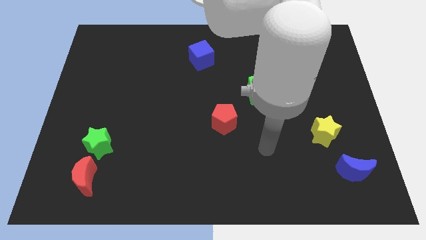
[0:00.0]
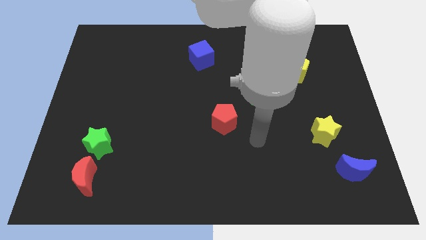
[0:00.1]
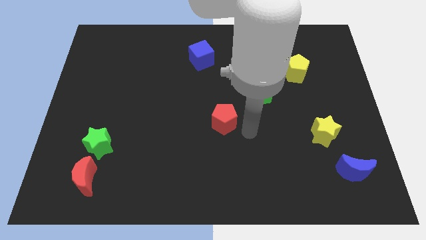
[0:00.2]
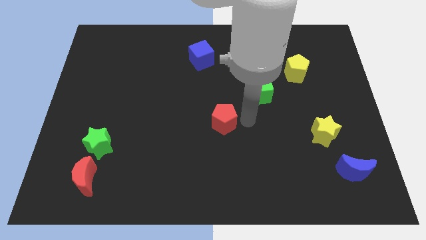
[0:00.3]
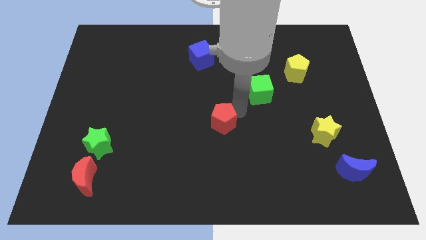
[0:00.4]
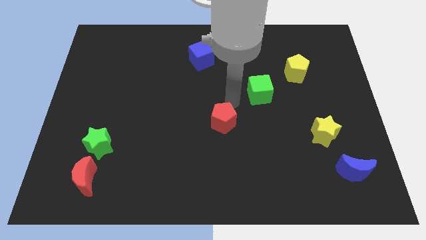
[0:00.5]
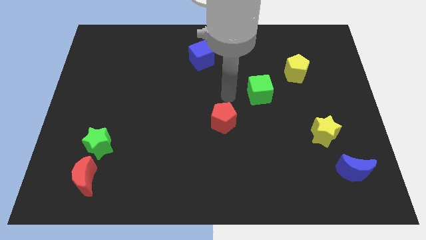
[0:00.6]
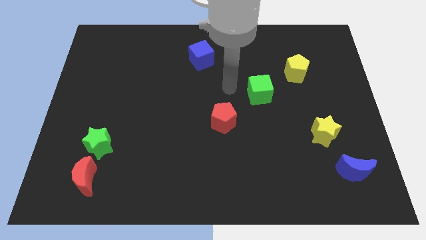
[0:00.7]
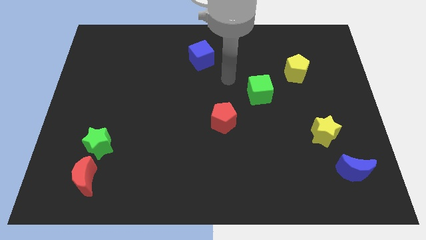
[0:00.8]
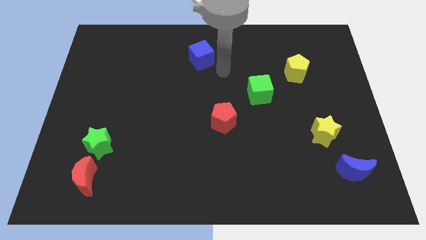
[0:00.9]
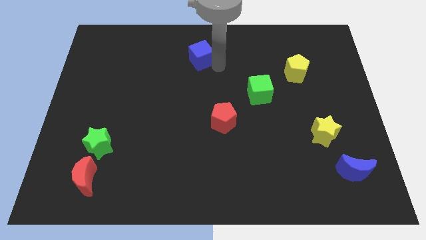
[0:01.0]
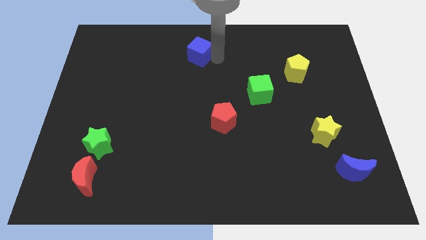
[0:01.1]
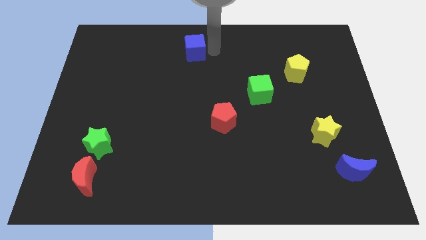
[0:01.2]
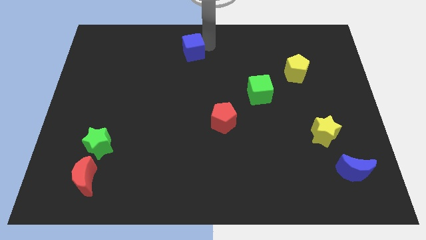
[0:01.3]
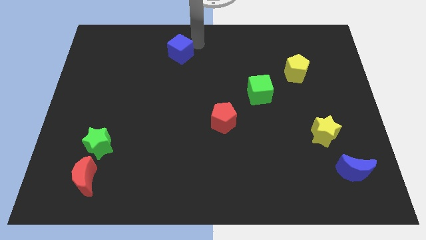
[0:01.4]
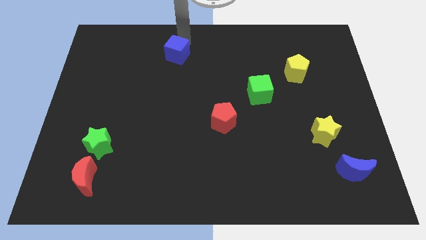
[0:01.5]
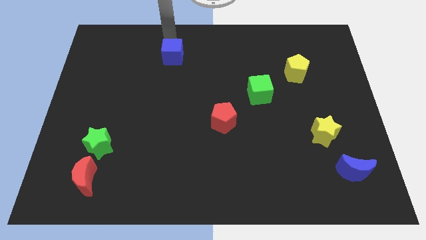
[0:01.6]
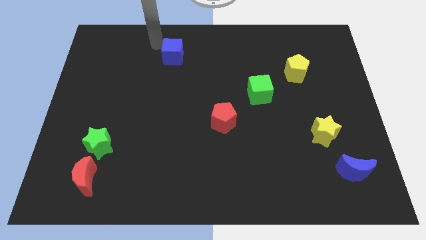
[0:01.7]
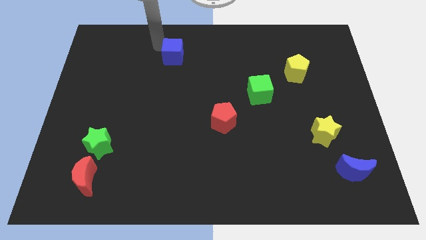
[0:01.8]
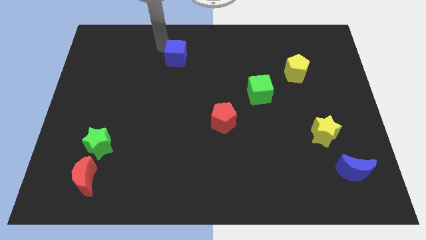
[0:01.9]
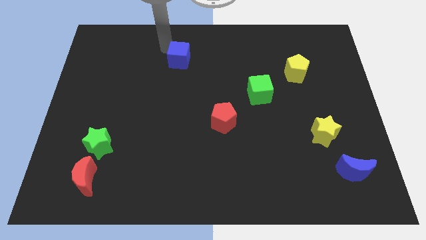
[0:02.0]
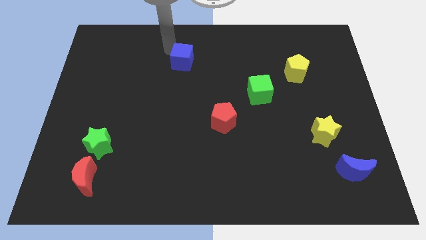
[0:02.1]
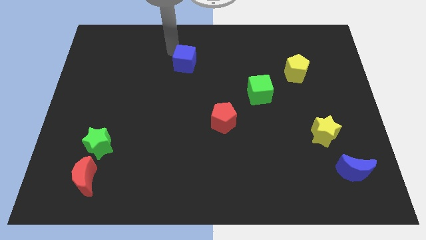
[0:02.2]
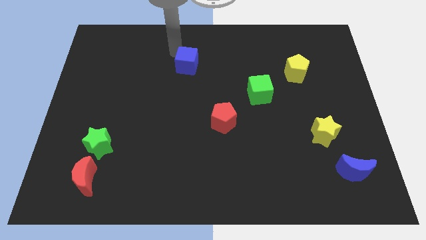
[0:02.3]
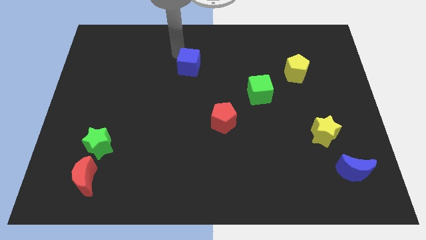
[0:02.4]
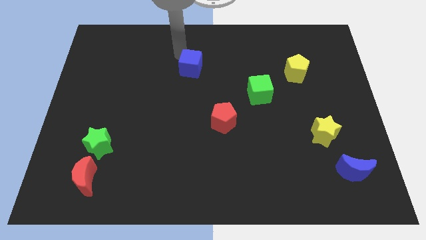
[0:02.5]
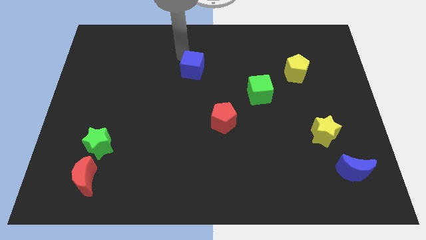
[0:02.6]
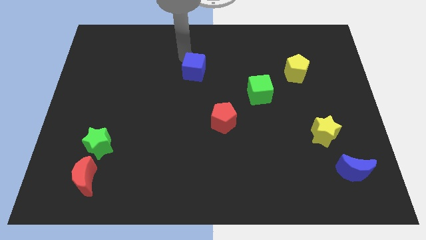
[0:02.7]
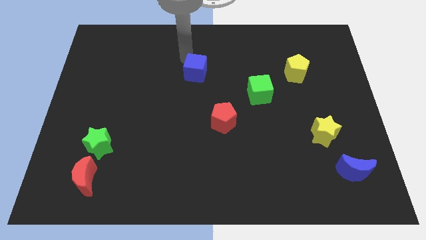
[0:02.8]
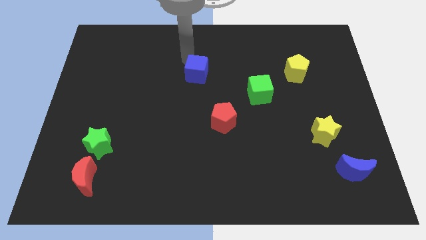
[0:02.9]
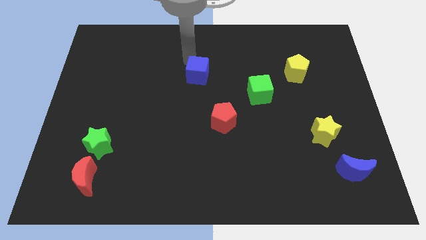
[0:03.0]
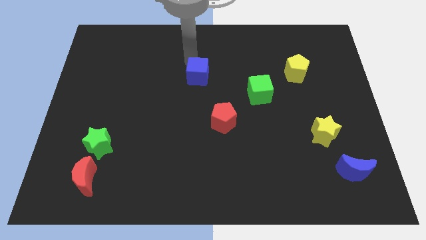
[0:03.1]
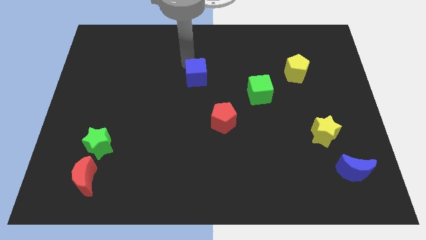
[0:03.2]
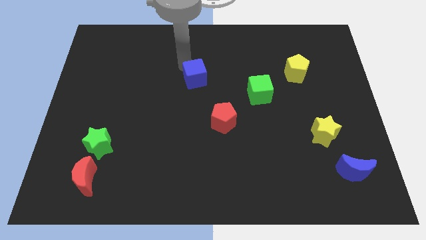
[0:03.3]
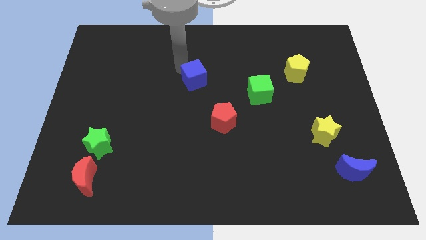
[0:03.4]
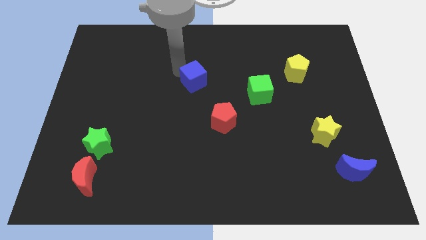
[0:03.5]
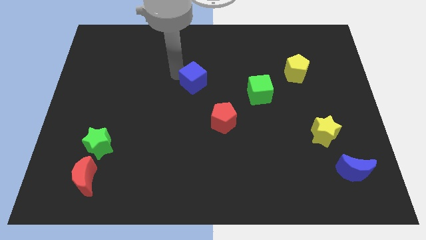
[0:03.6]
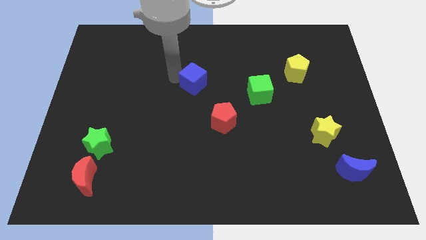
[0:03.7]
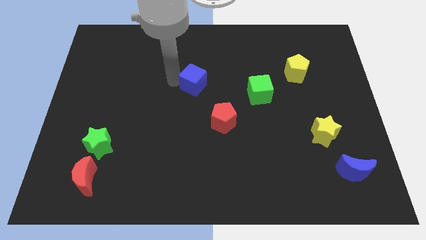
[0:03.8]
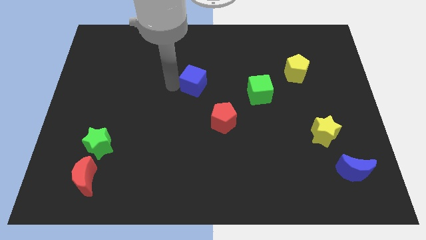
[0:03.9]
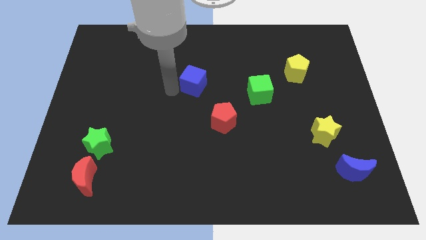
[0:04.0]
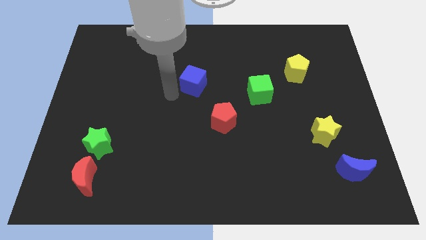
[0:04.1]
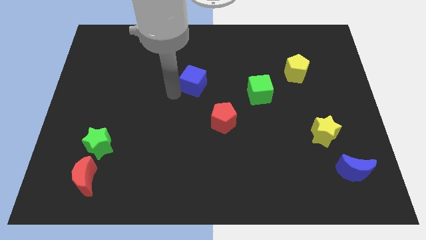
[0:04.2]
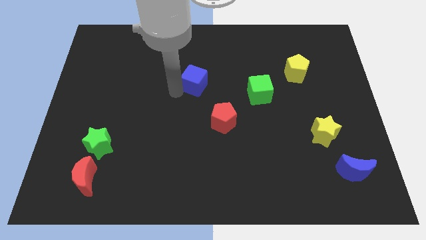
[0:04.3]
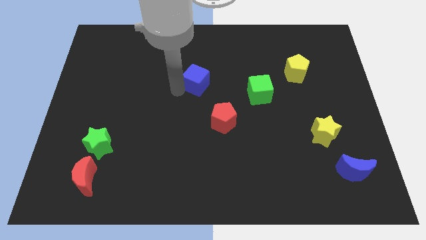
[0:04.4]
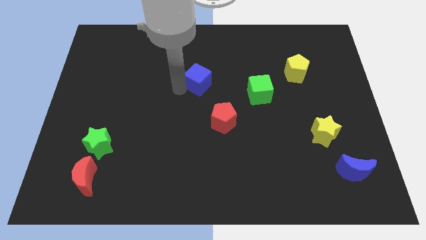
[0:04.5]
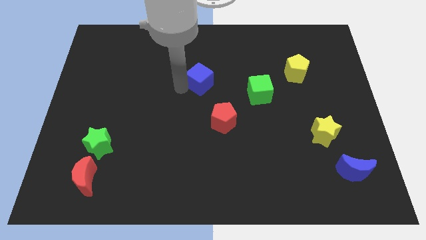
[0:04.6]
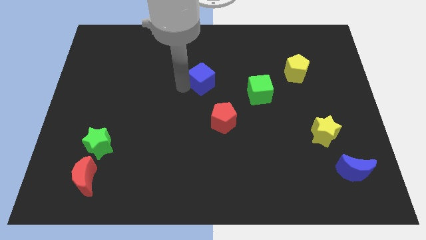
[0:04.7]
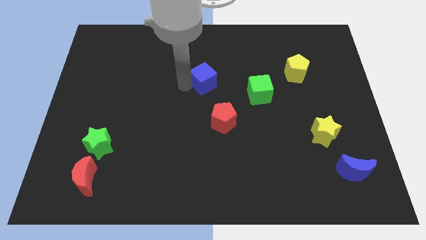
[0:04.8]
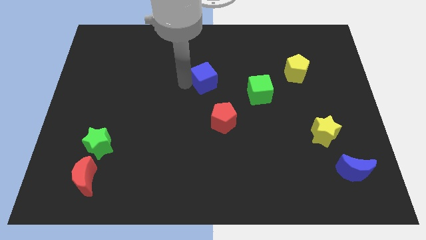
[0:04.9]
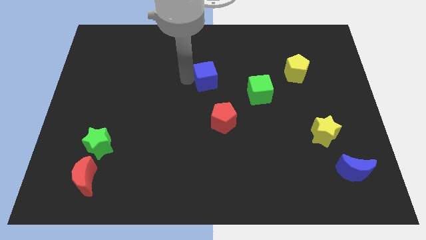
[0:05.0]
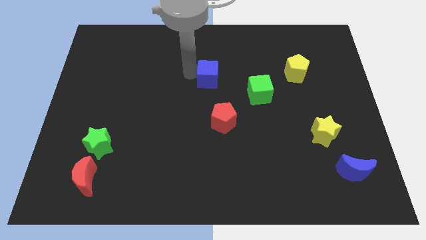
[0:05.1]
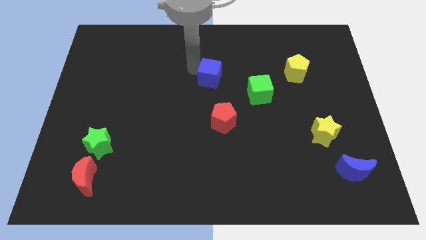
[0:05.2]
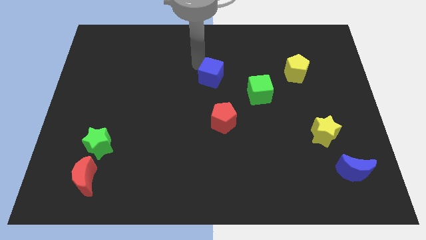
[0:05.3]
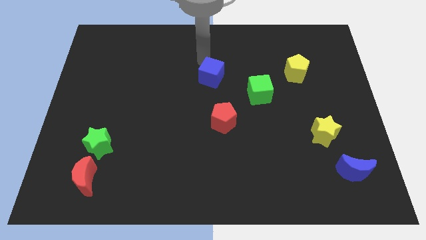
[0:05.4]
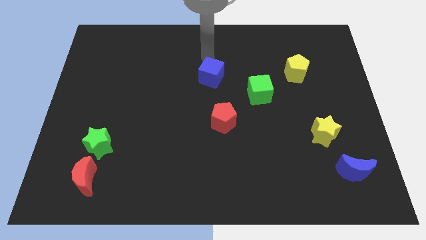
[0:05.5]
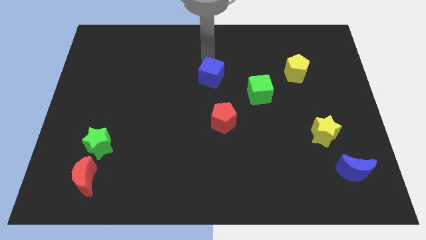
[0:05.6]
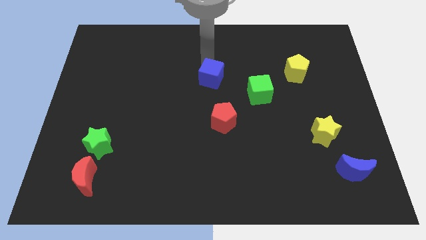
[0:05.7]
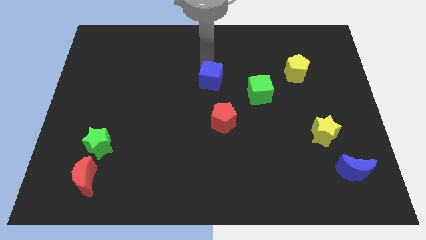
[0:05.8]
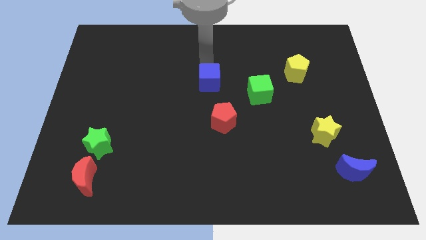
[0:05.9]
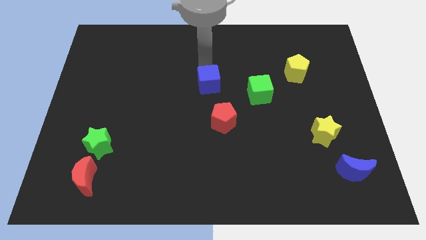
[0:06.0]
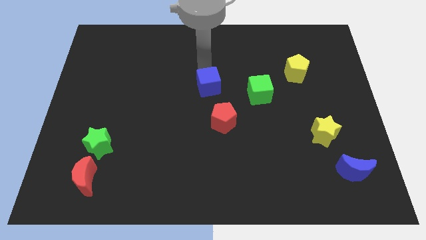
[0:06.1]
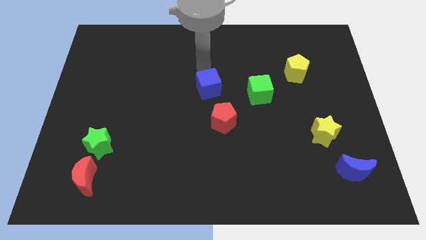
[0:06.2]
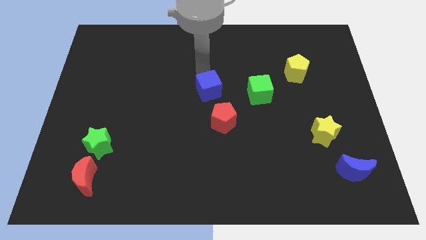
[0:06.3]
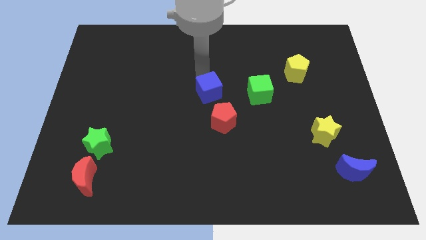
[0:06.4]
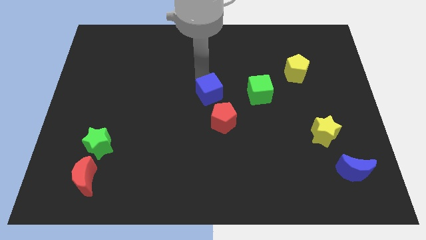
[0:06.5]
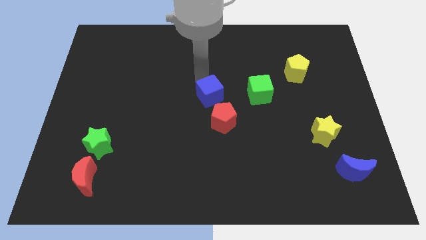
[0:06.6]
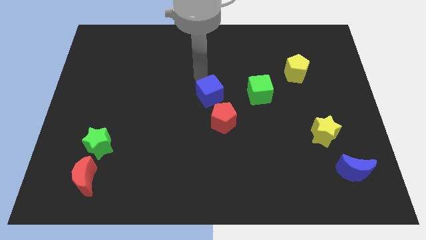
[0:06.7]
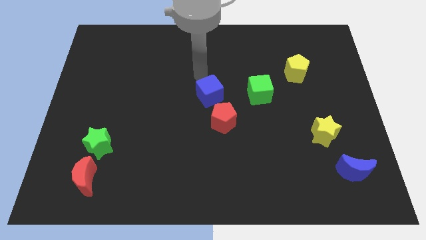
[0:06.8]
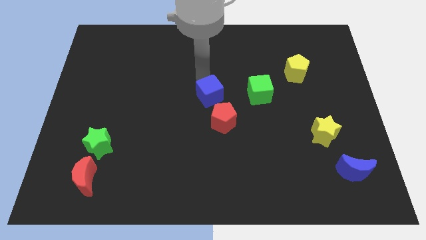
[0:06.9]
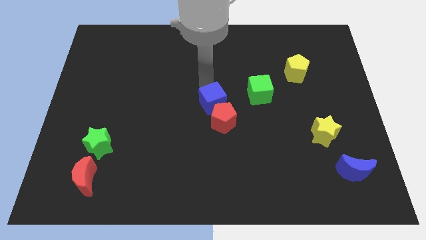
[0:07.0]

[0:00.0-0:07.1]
push the blue cube close to the red pentagon

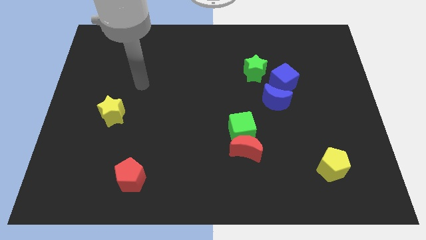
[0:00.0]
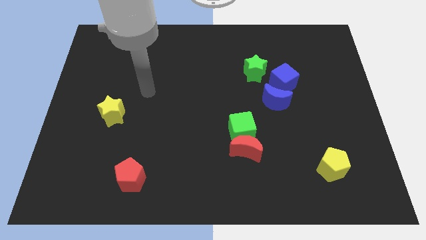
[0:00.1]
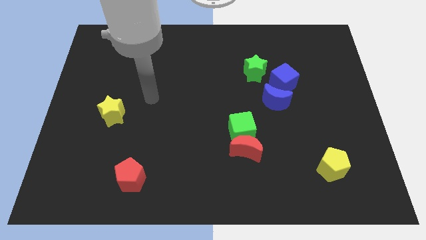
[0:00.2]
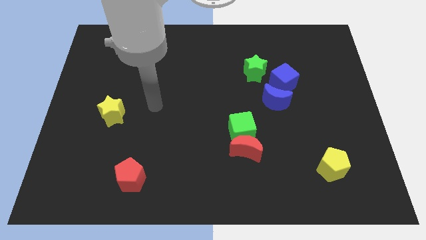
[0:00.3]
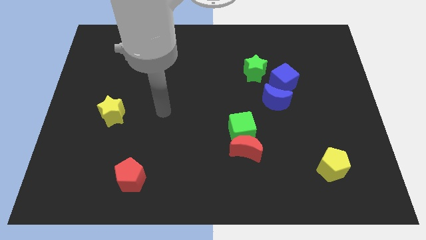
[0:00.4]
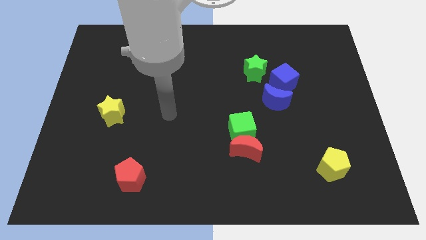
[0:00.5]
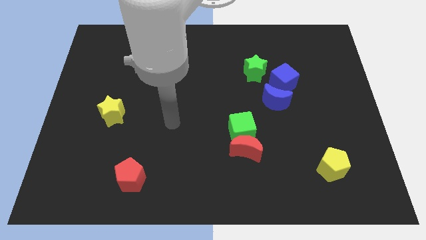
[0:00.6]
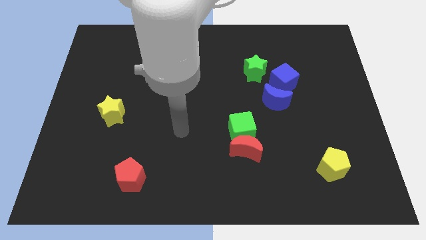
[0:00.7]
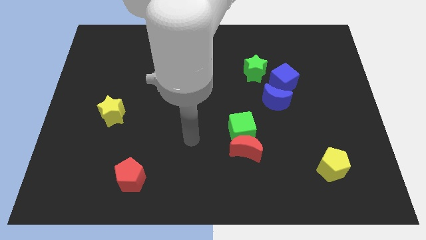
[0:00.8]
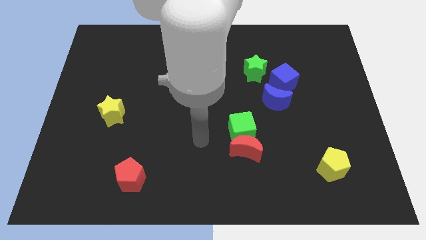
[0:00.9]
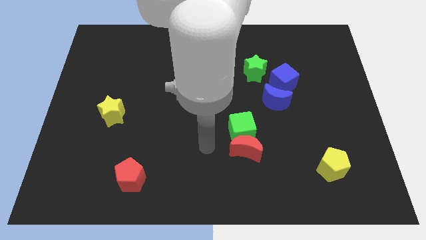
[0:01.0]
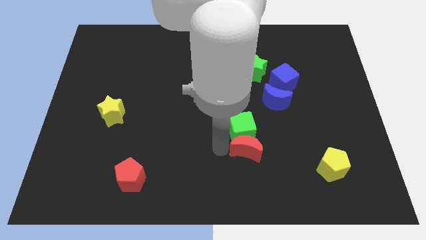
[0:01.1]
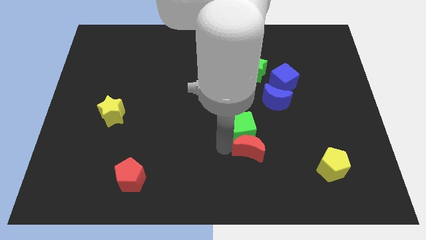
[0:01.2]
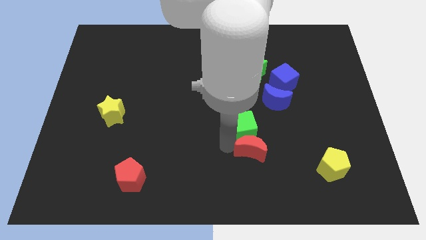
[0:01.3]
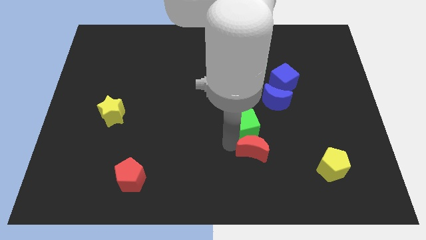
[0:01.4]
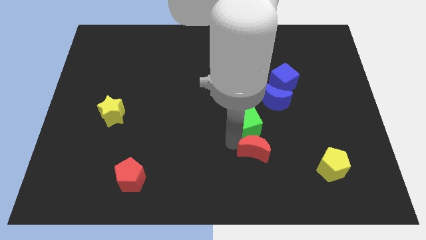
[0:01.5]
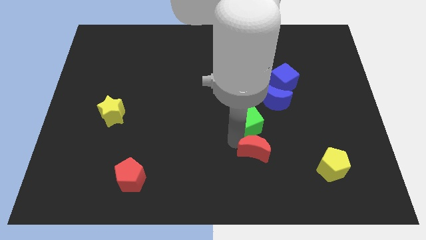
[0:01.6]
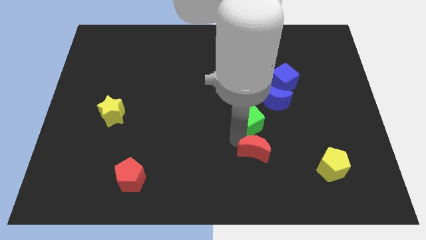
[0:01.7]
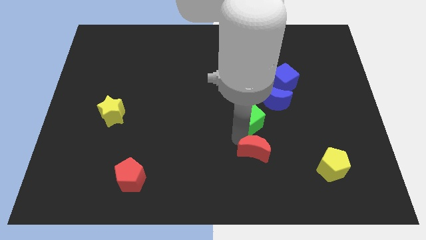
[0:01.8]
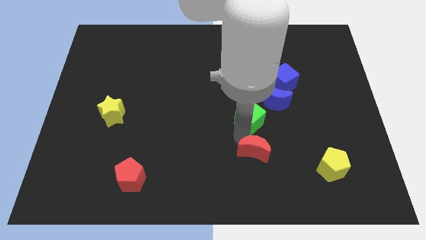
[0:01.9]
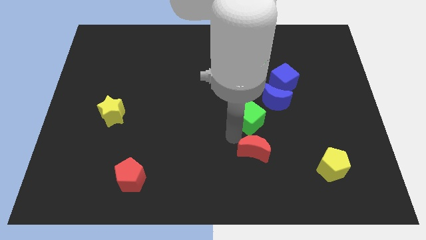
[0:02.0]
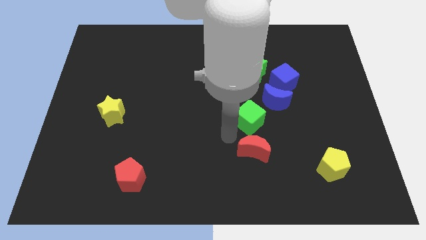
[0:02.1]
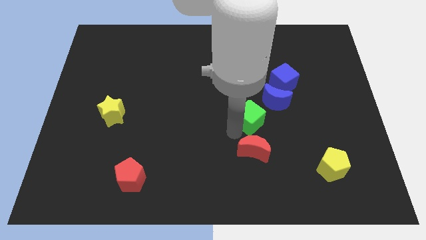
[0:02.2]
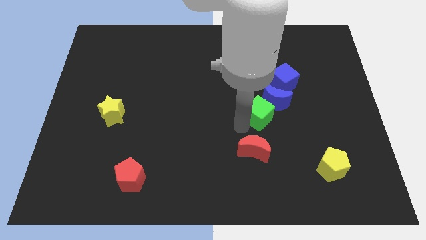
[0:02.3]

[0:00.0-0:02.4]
put the green cube towards the blue moon
